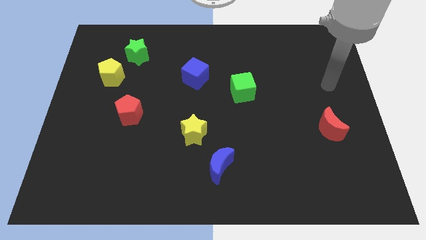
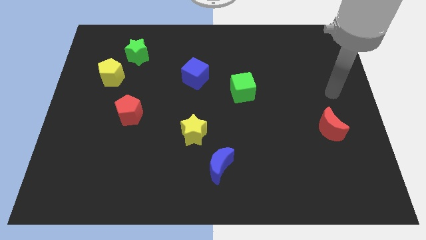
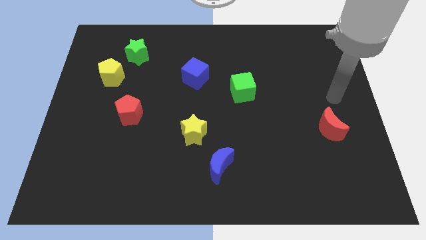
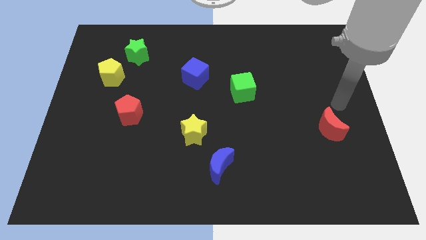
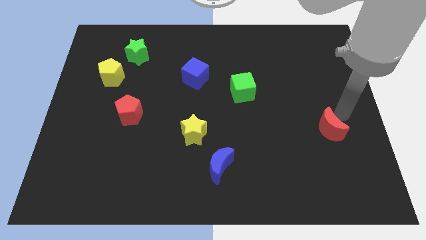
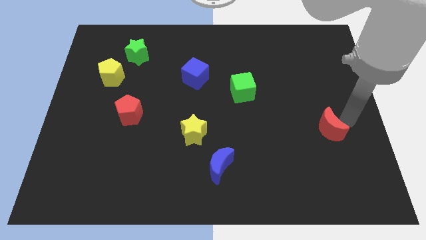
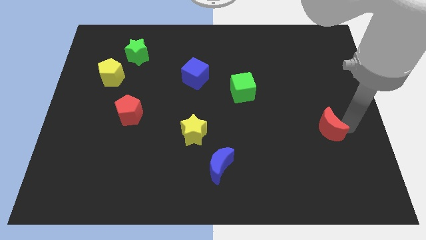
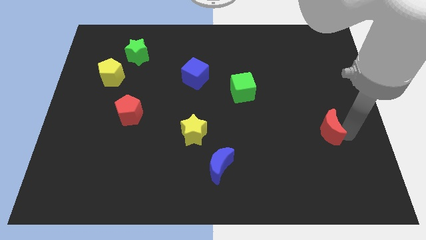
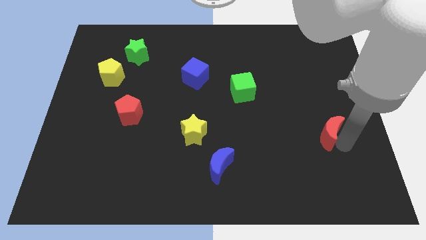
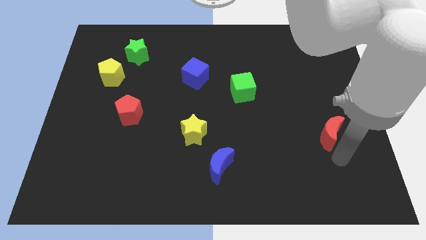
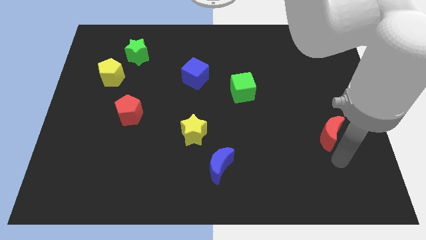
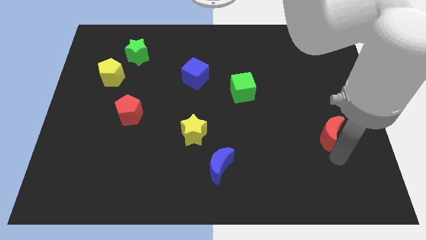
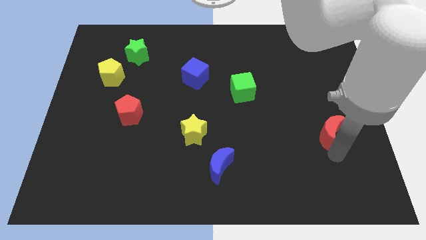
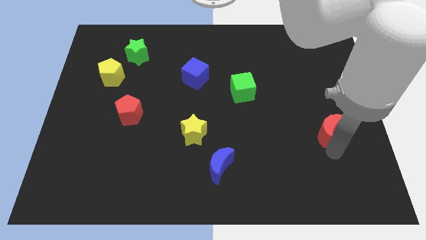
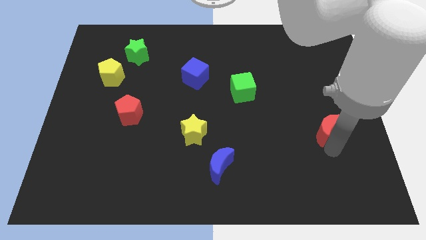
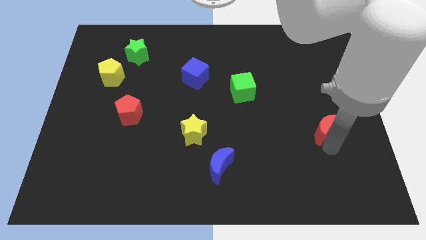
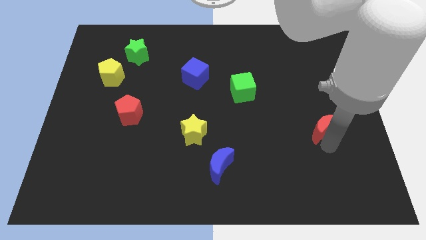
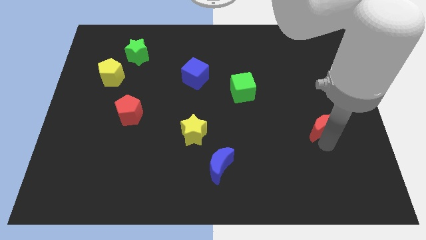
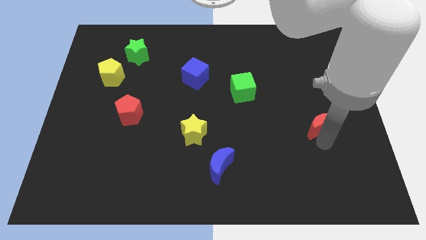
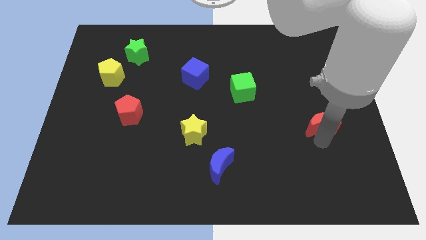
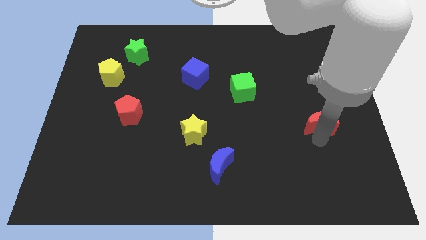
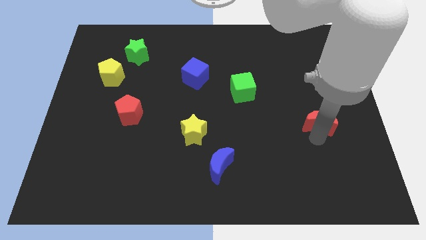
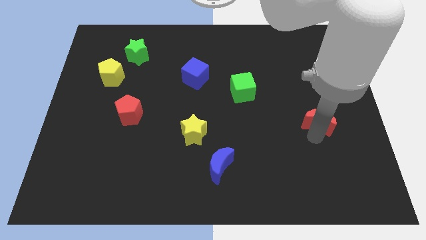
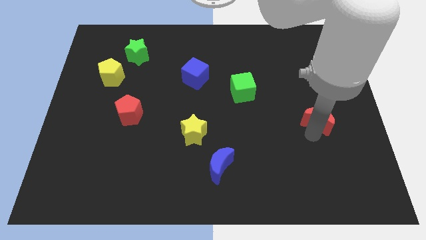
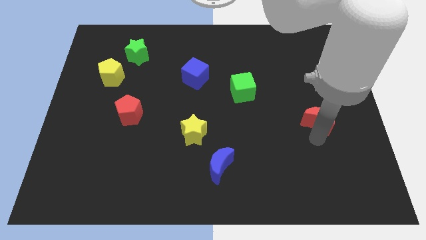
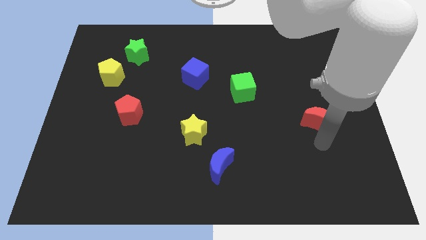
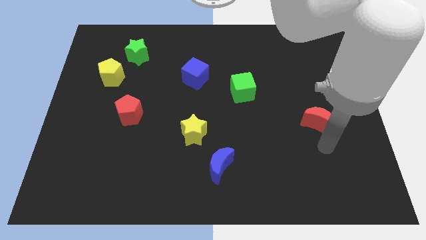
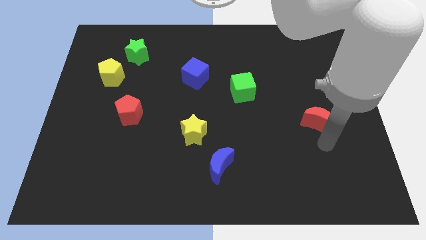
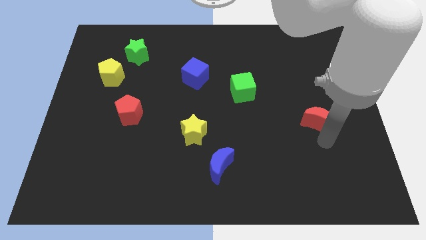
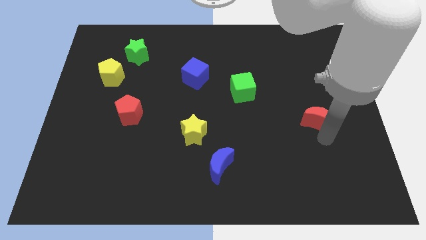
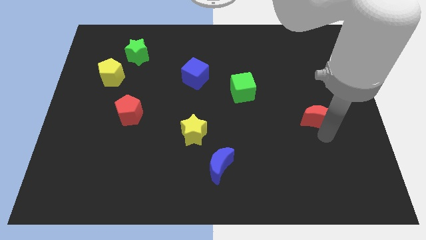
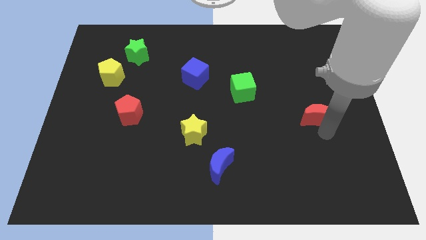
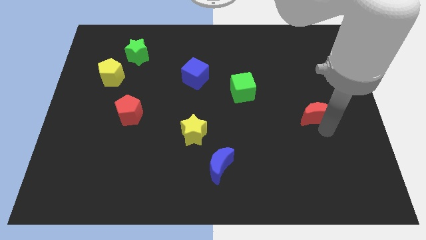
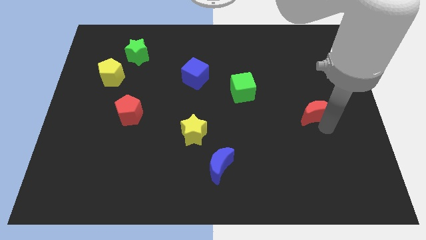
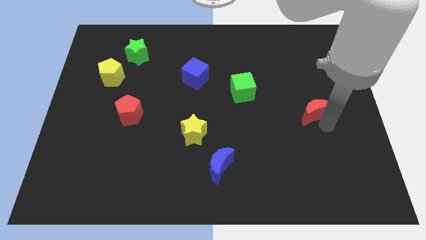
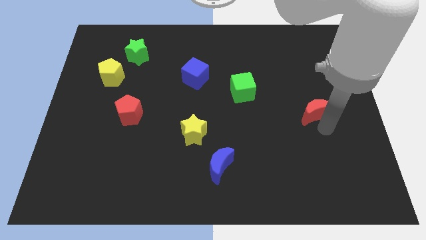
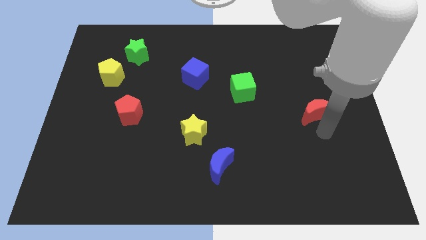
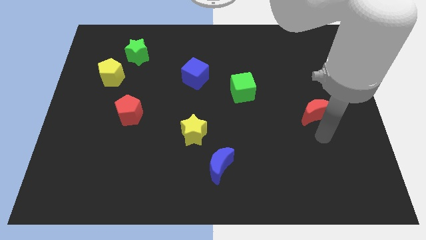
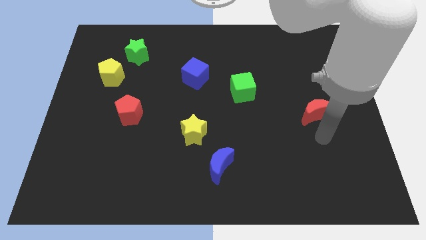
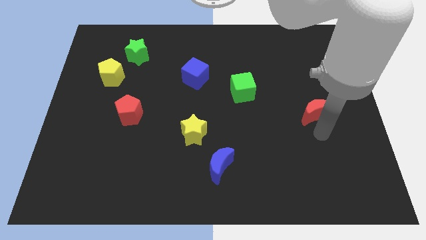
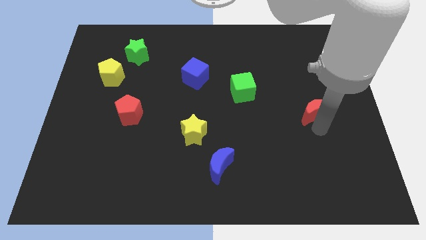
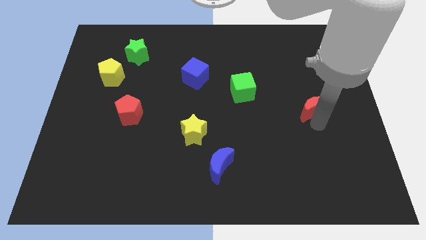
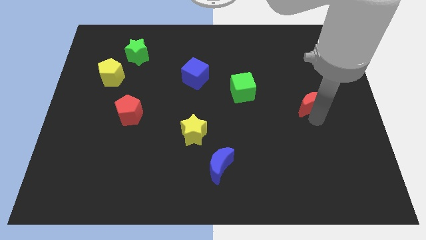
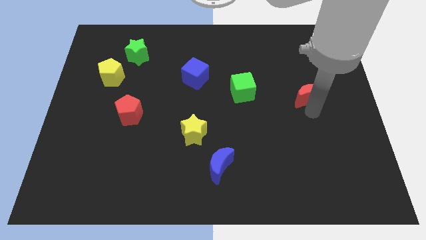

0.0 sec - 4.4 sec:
move the red moon a bit up

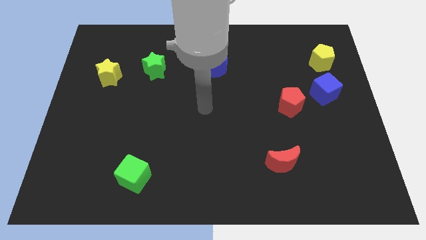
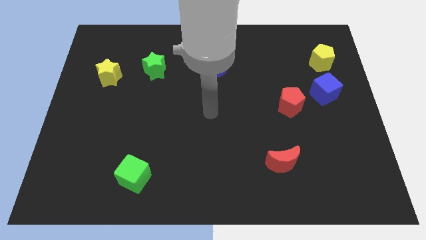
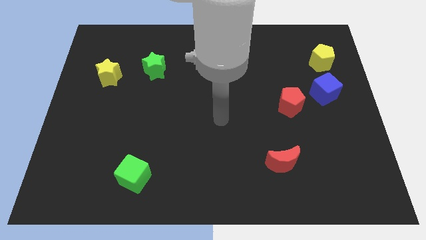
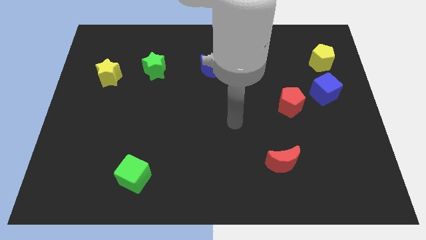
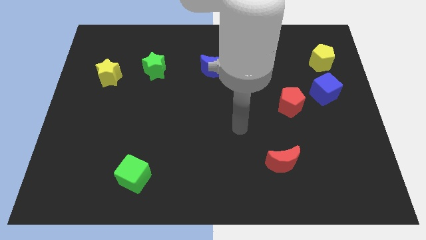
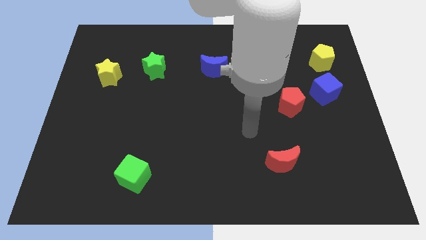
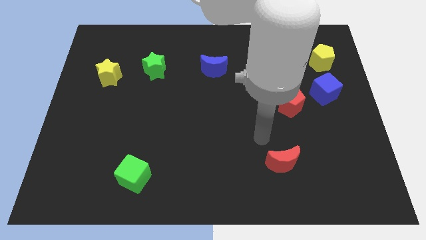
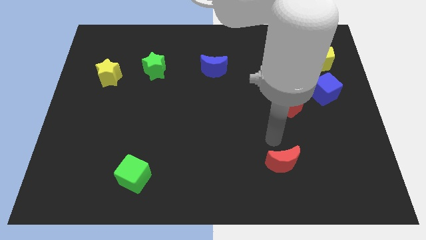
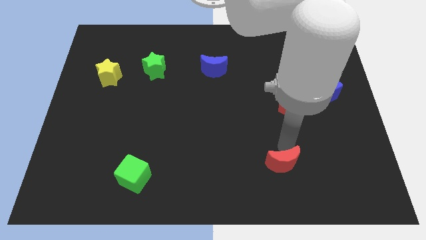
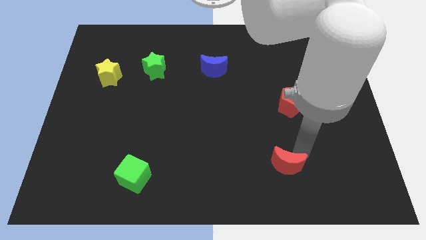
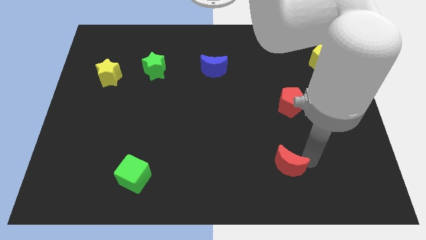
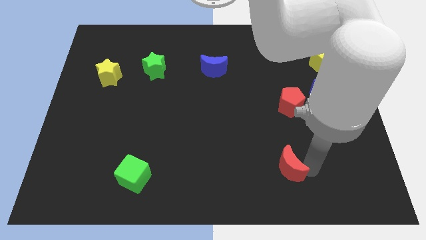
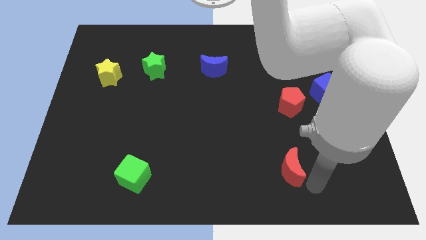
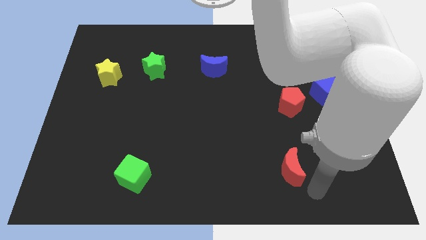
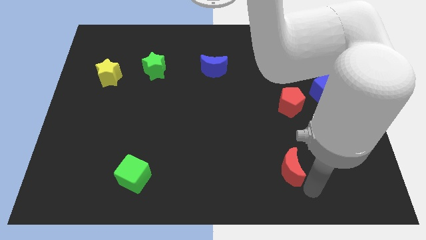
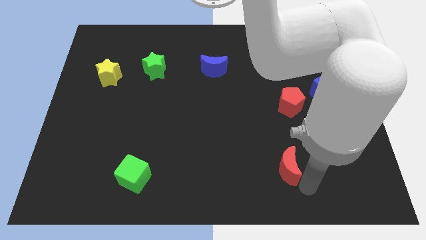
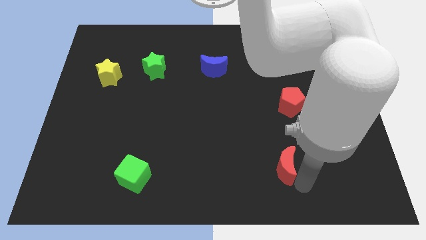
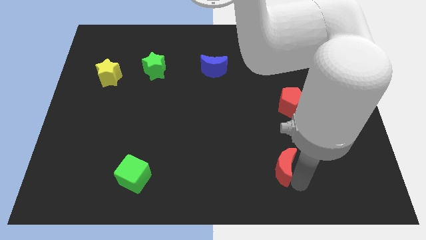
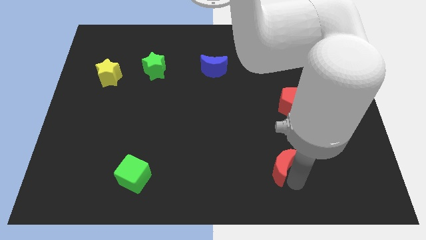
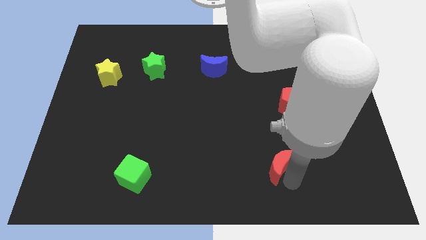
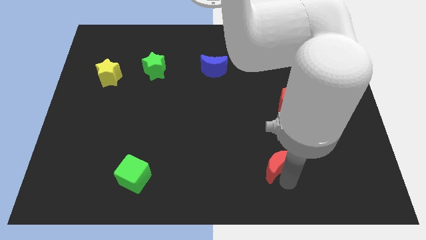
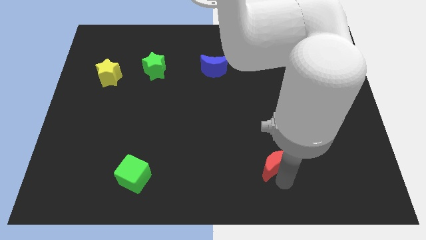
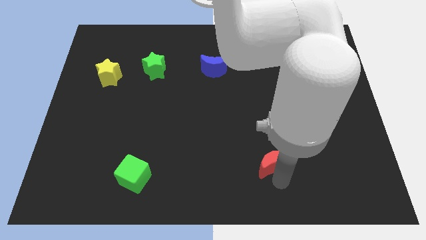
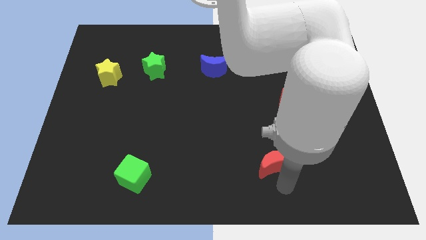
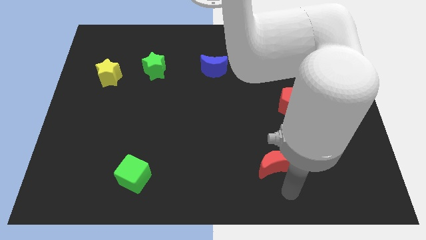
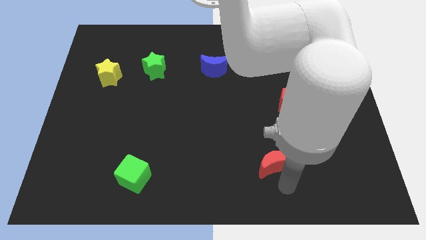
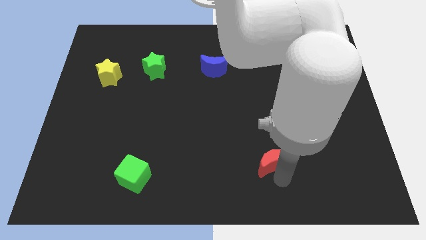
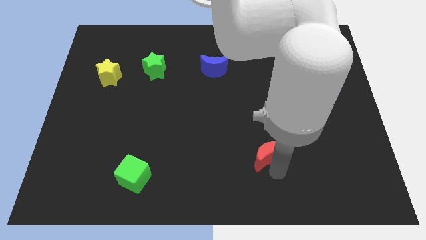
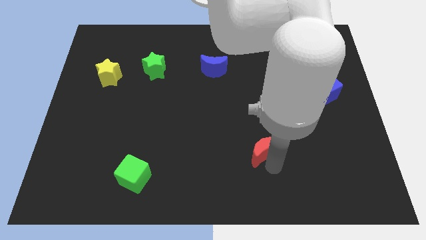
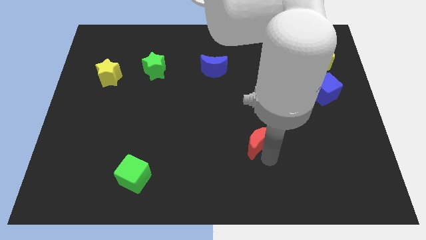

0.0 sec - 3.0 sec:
slide the red moon diagonally up and left slightly

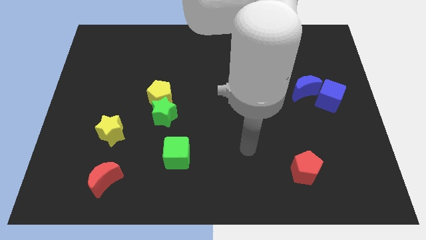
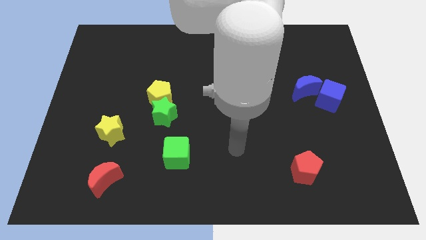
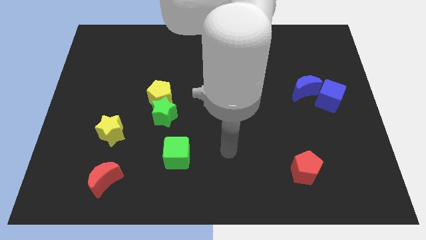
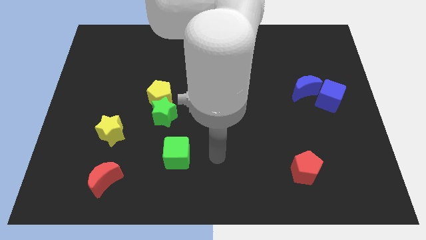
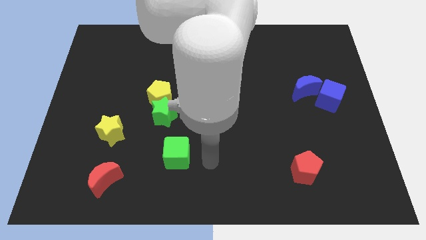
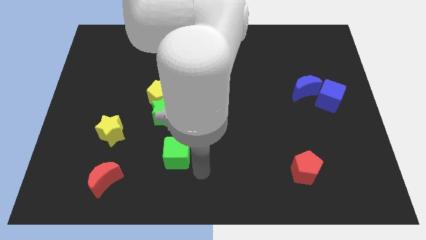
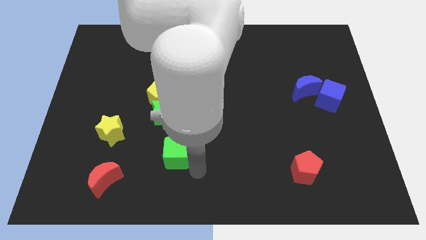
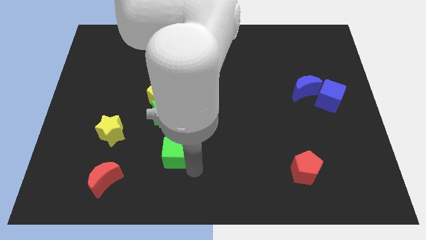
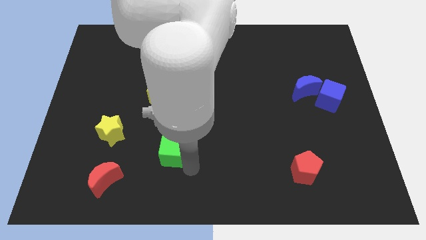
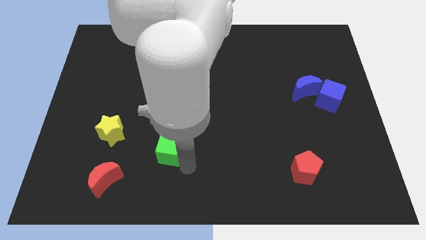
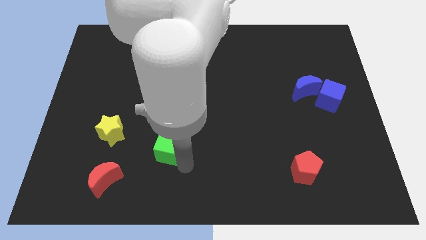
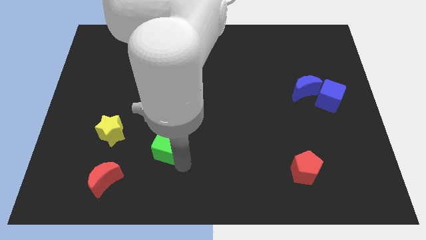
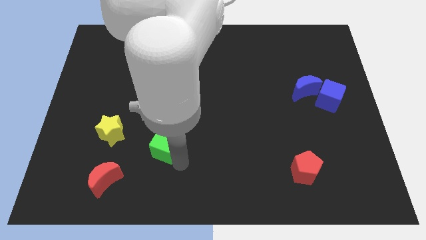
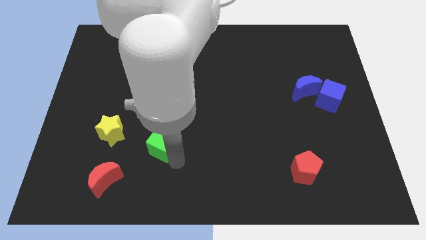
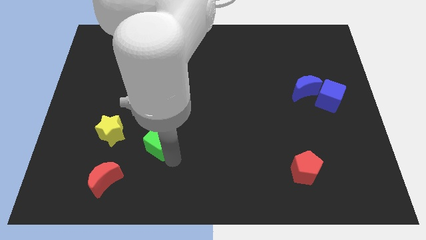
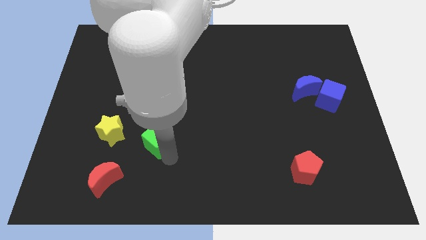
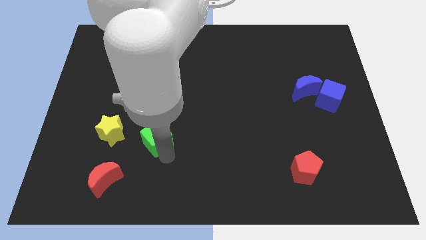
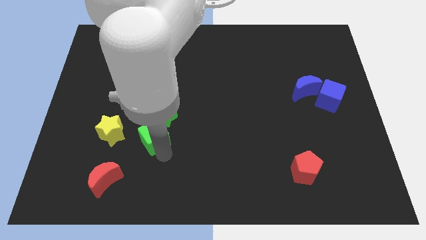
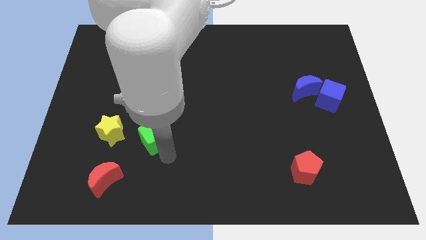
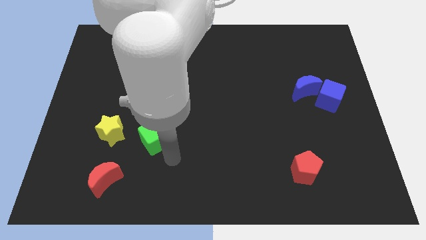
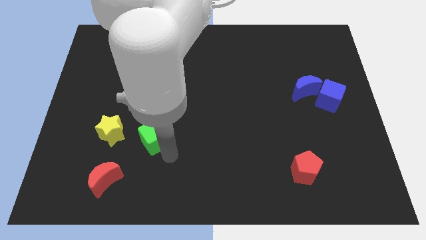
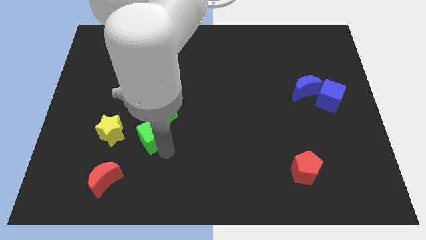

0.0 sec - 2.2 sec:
push the green cube slightly upwards and left
